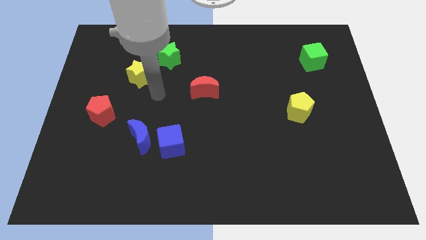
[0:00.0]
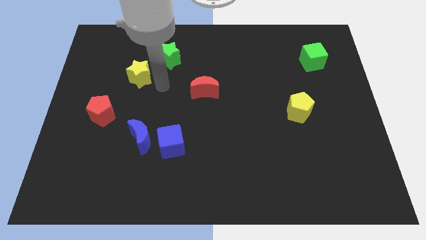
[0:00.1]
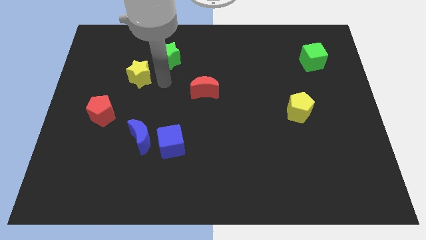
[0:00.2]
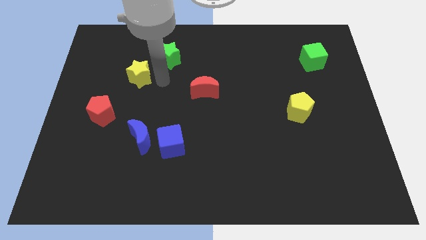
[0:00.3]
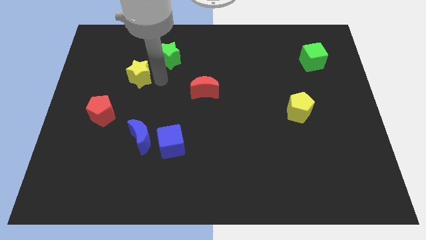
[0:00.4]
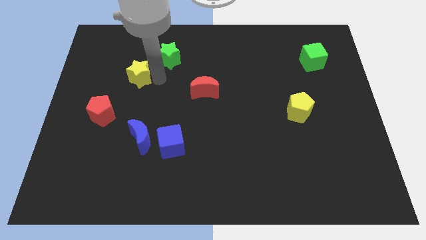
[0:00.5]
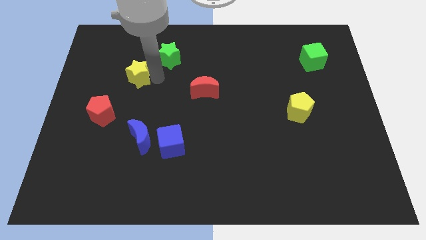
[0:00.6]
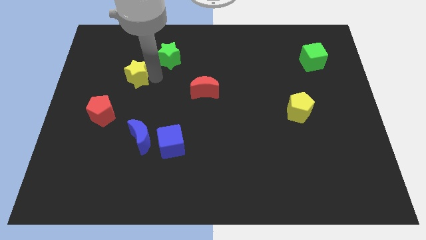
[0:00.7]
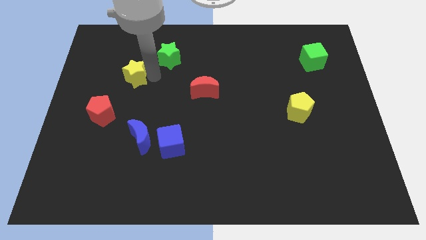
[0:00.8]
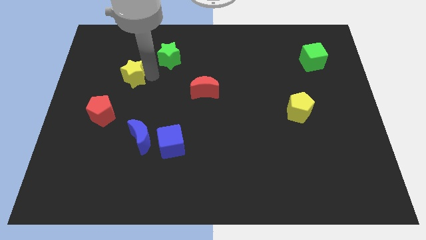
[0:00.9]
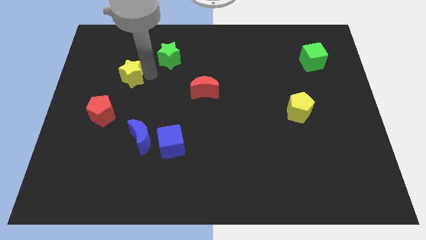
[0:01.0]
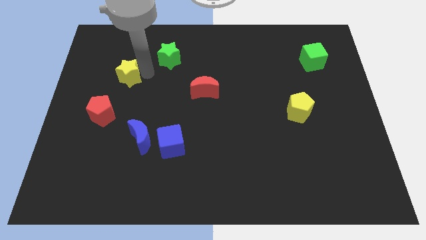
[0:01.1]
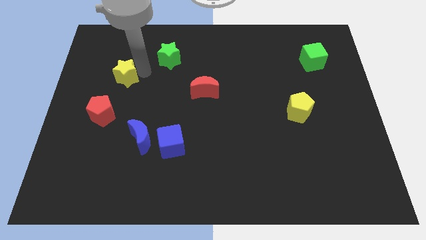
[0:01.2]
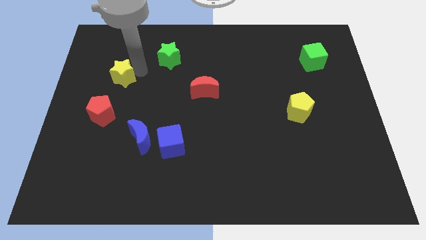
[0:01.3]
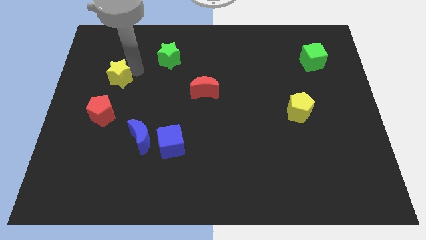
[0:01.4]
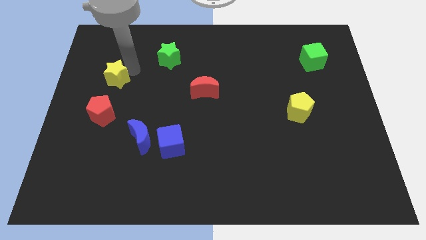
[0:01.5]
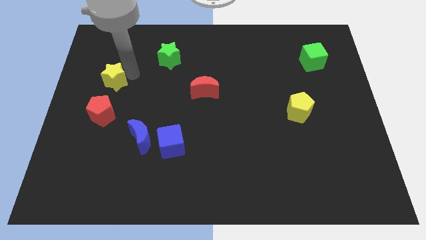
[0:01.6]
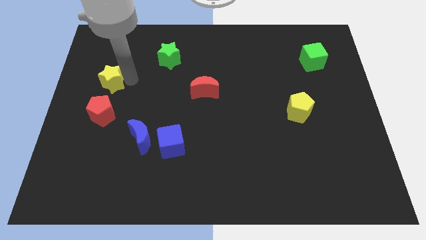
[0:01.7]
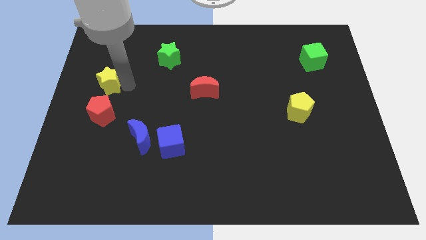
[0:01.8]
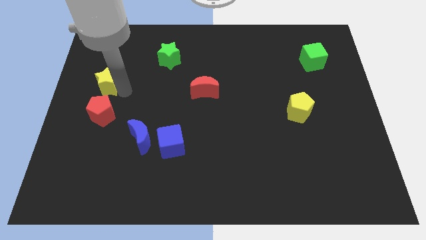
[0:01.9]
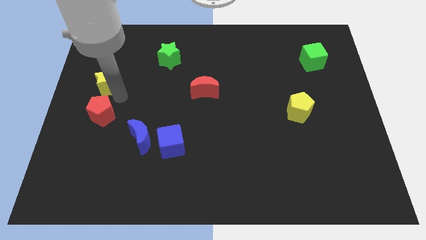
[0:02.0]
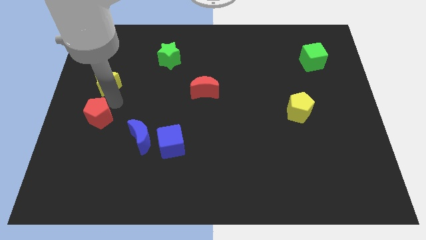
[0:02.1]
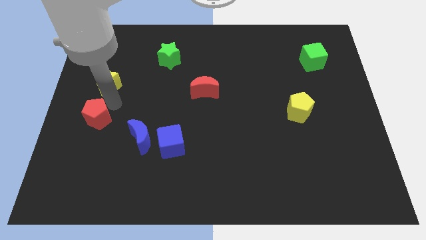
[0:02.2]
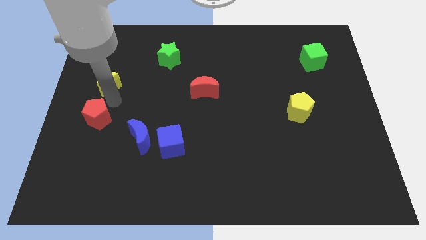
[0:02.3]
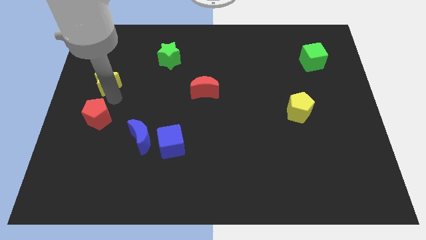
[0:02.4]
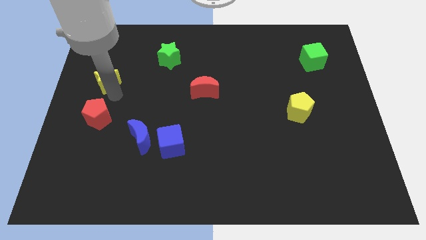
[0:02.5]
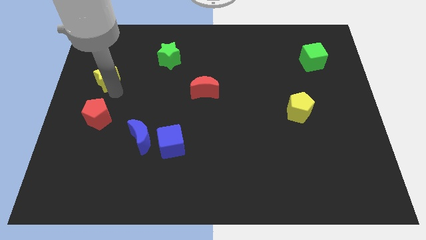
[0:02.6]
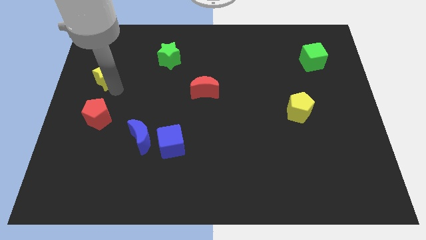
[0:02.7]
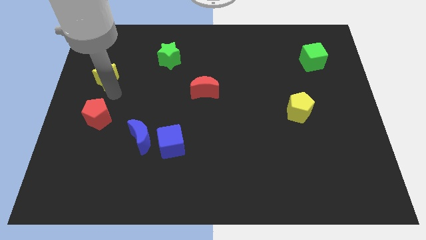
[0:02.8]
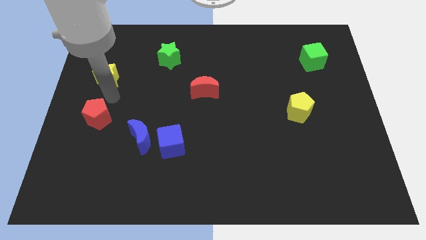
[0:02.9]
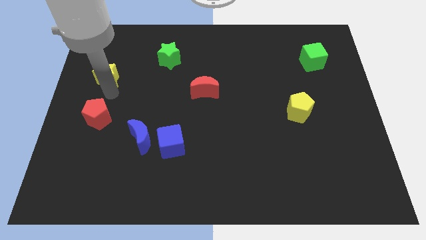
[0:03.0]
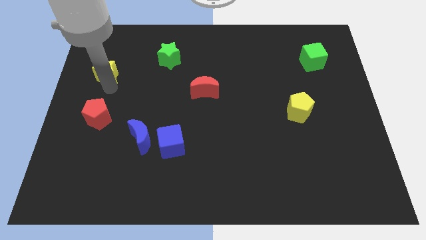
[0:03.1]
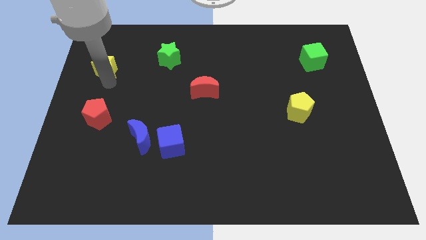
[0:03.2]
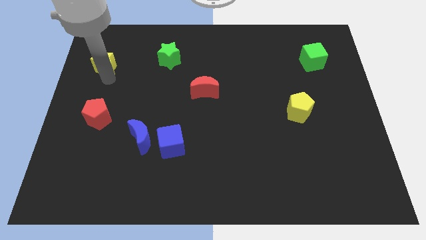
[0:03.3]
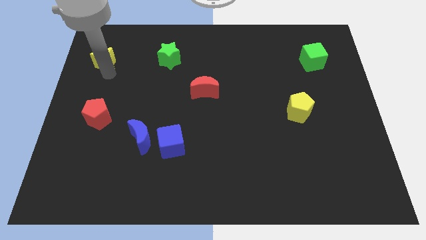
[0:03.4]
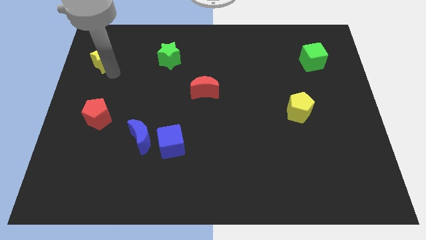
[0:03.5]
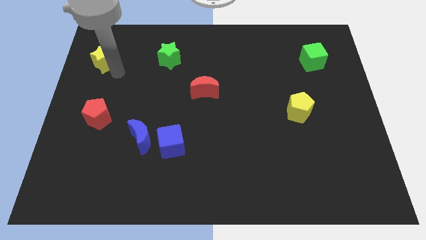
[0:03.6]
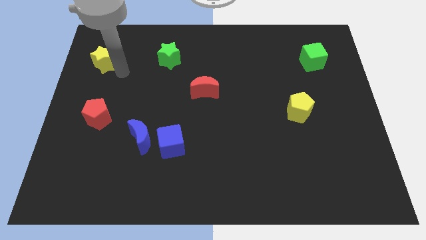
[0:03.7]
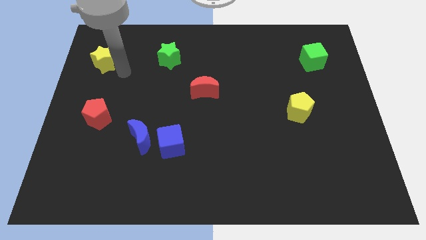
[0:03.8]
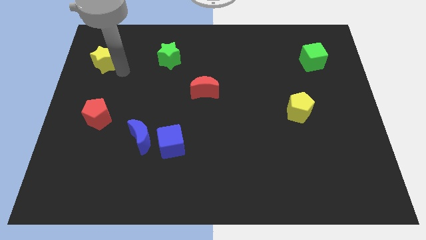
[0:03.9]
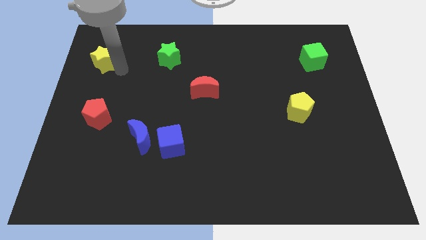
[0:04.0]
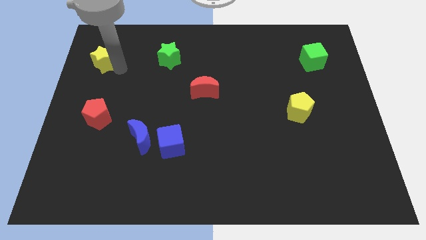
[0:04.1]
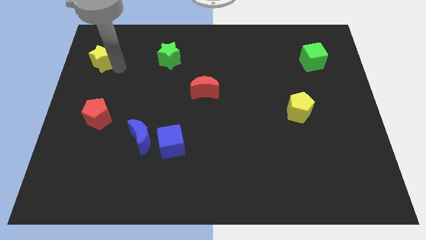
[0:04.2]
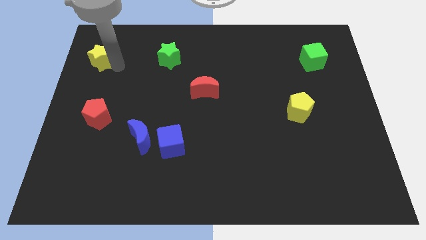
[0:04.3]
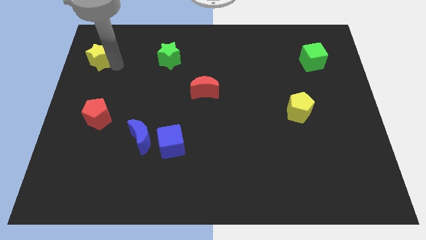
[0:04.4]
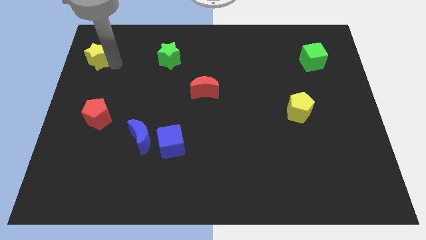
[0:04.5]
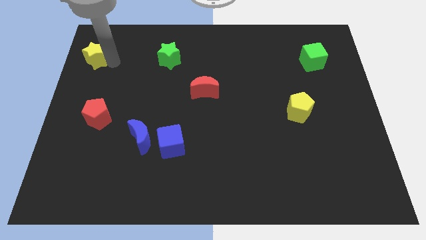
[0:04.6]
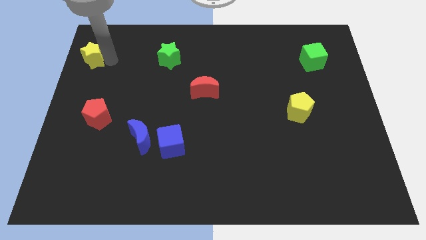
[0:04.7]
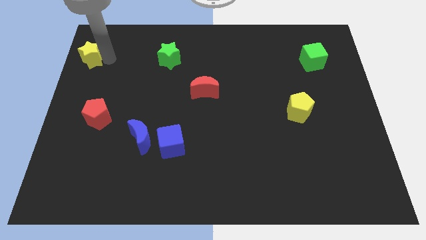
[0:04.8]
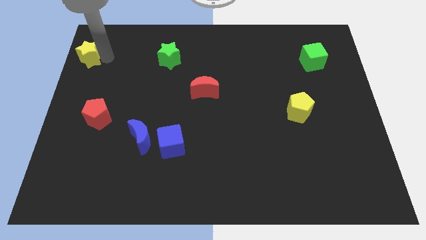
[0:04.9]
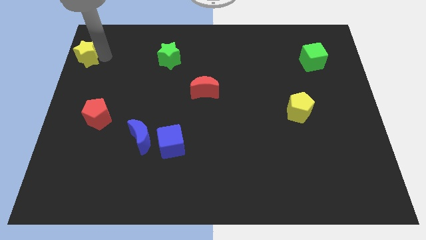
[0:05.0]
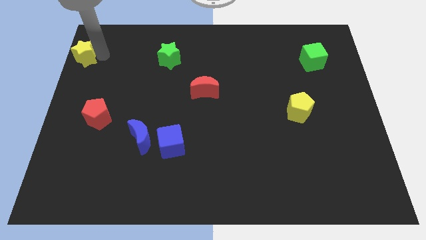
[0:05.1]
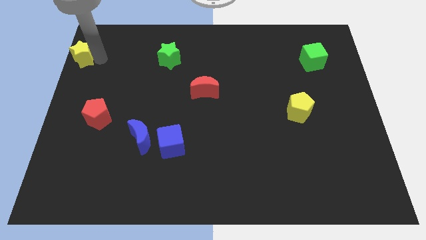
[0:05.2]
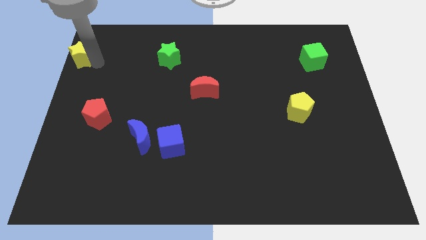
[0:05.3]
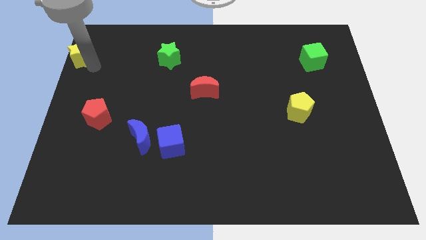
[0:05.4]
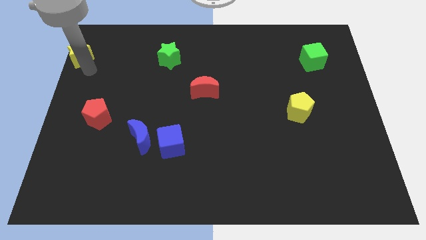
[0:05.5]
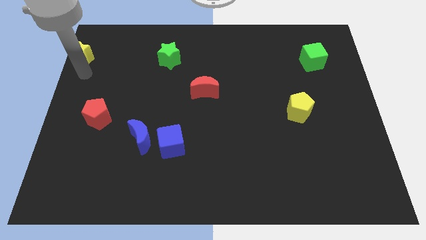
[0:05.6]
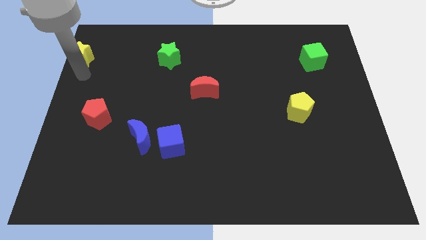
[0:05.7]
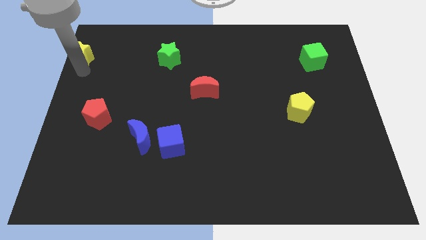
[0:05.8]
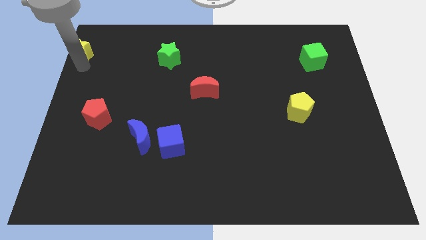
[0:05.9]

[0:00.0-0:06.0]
push the yellow star to the upper left corner
